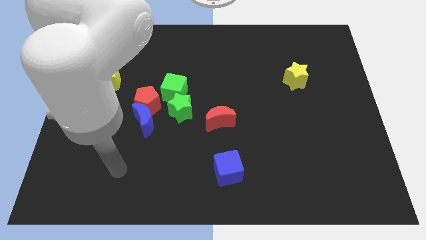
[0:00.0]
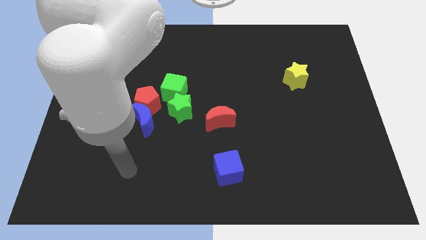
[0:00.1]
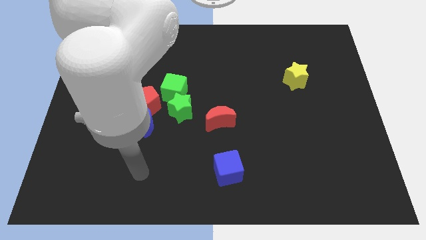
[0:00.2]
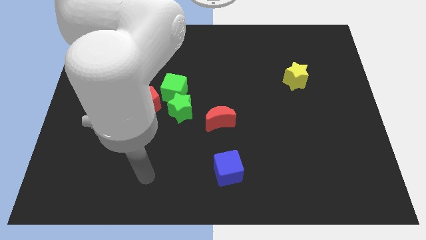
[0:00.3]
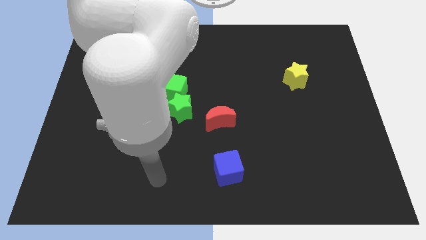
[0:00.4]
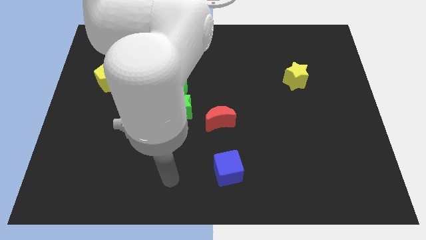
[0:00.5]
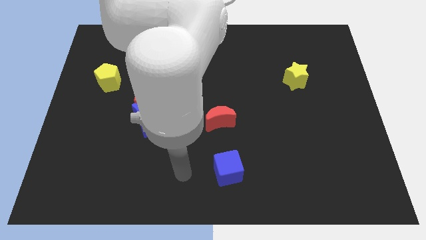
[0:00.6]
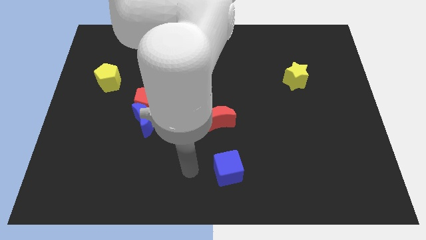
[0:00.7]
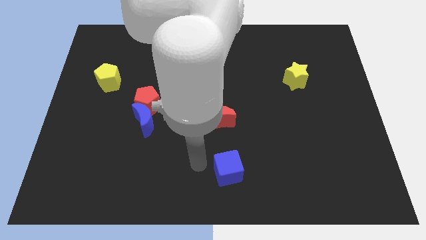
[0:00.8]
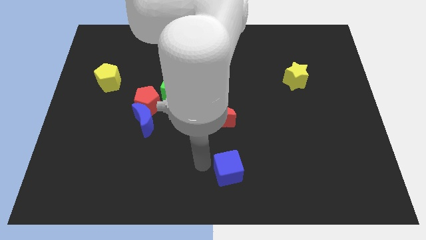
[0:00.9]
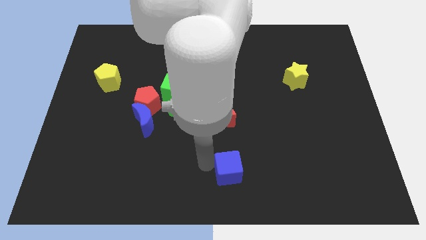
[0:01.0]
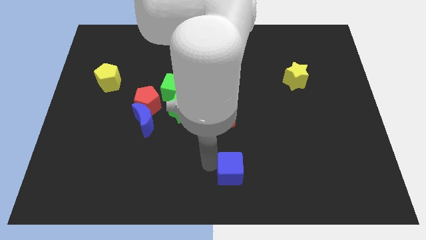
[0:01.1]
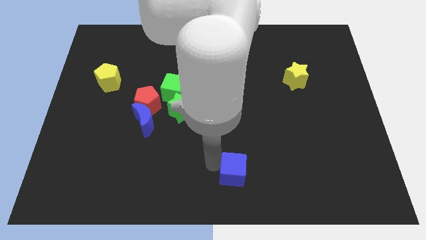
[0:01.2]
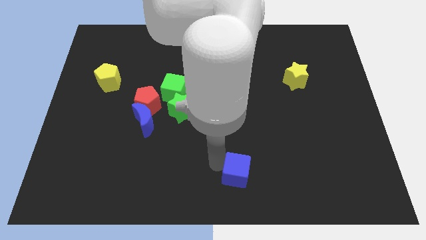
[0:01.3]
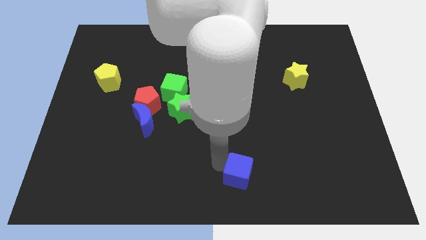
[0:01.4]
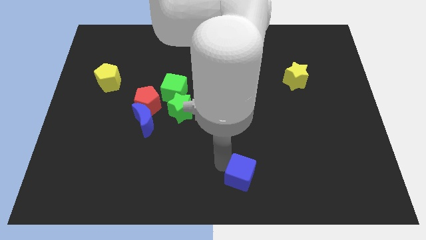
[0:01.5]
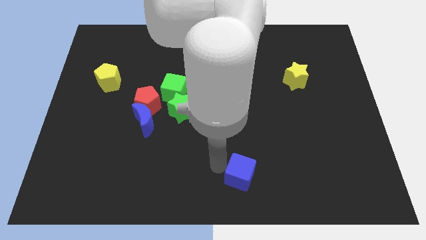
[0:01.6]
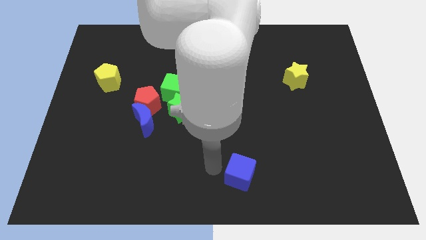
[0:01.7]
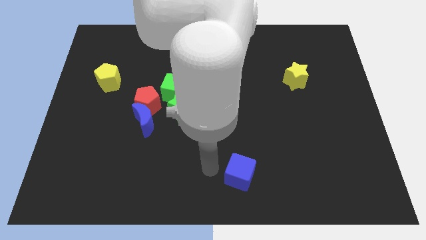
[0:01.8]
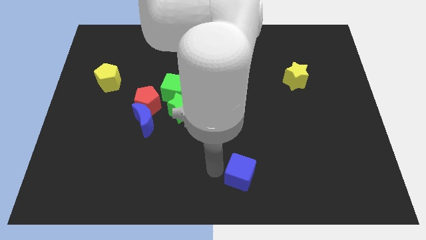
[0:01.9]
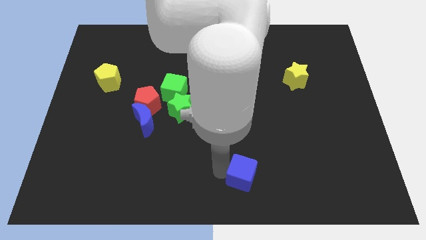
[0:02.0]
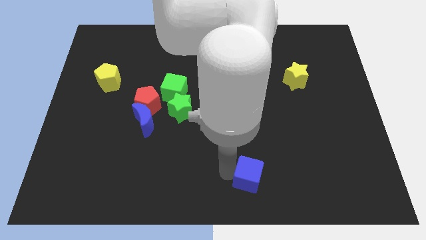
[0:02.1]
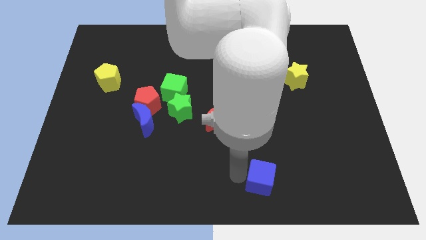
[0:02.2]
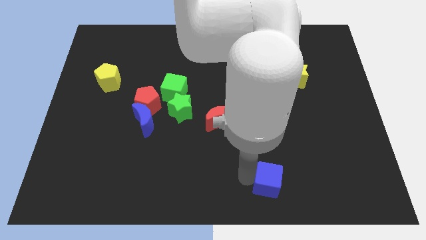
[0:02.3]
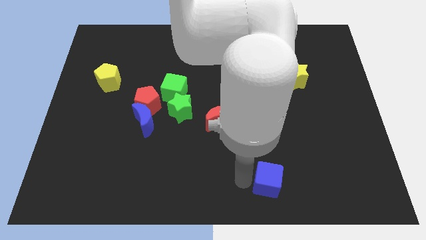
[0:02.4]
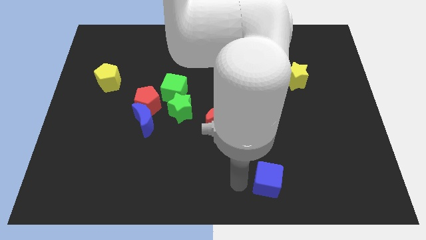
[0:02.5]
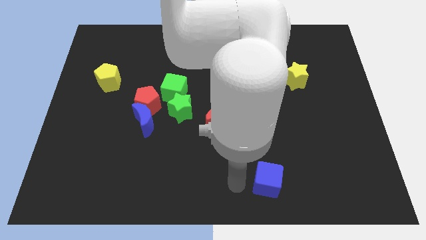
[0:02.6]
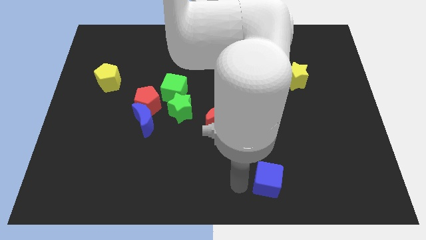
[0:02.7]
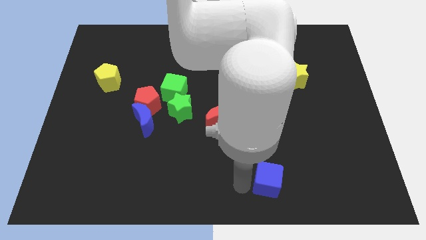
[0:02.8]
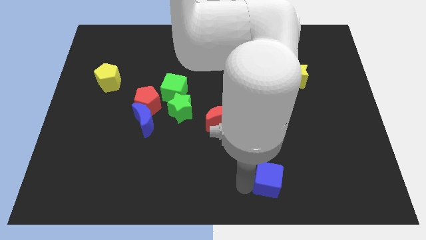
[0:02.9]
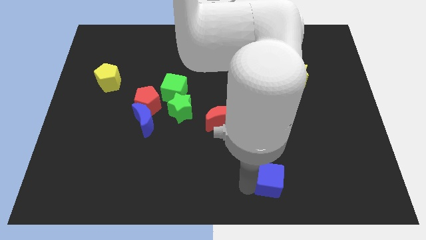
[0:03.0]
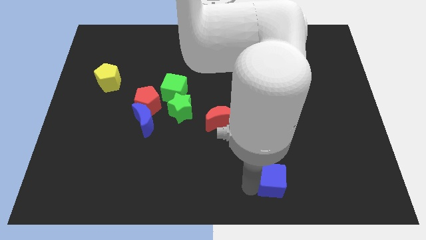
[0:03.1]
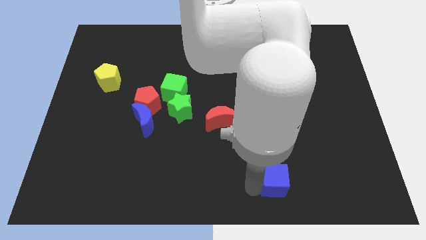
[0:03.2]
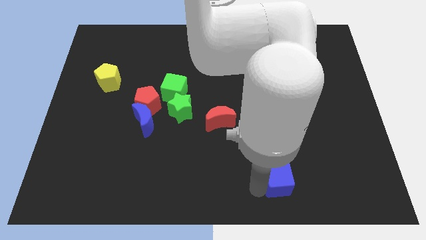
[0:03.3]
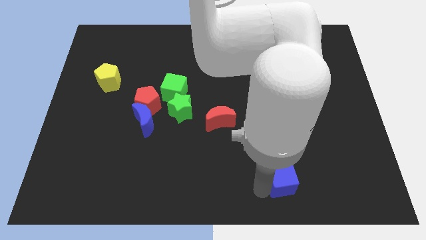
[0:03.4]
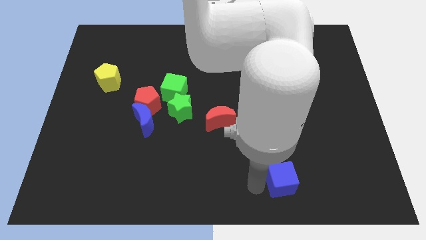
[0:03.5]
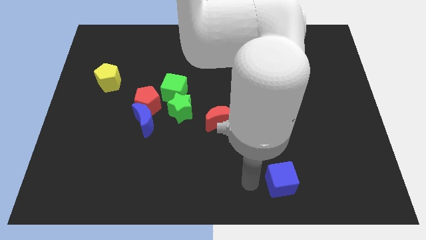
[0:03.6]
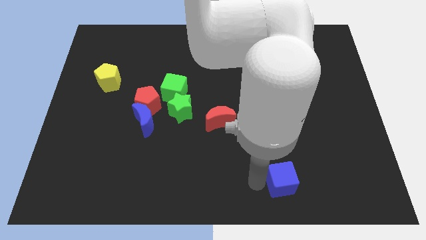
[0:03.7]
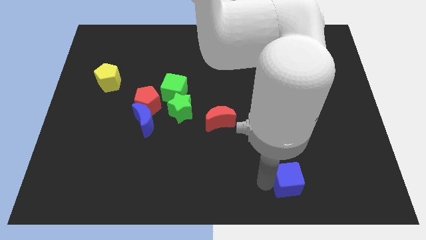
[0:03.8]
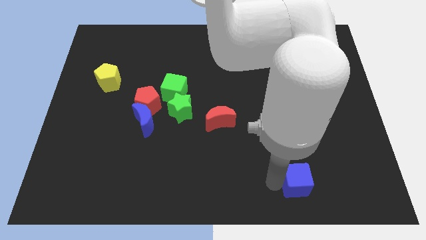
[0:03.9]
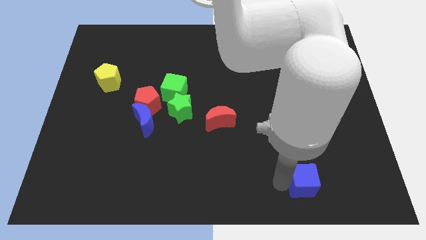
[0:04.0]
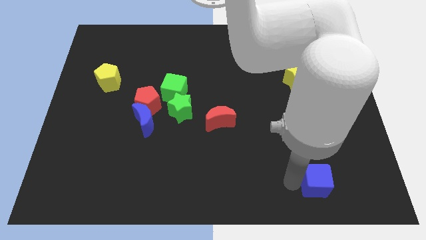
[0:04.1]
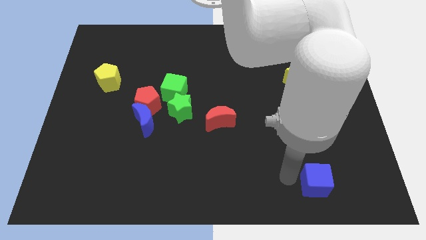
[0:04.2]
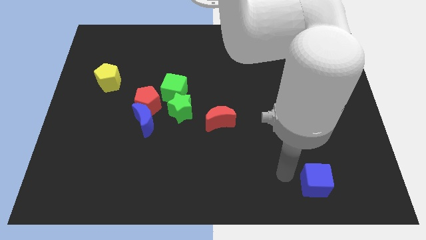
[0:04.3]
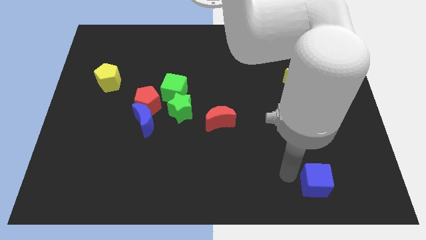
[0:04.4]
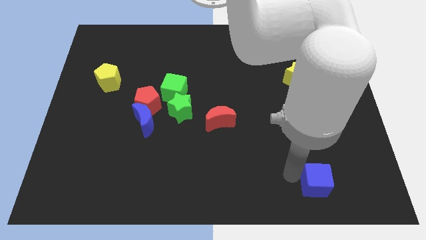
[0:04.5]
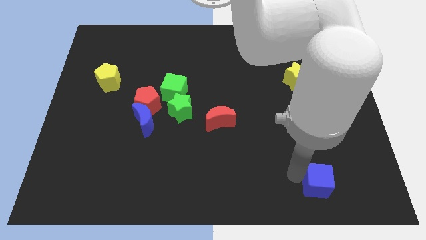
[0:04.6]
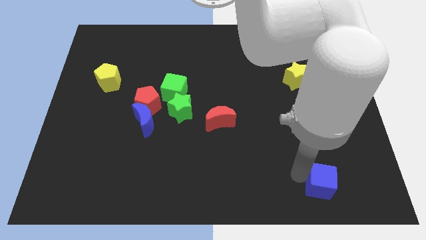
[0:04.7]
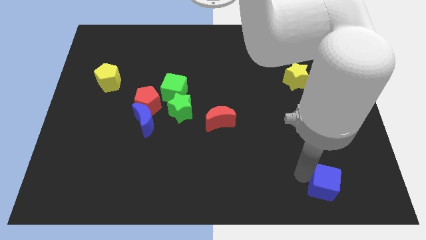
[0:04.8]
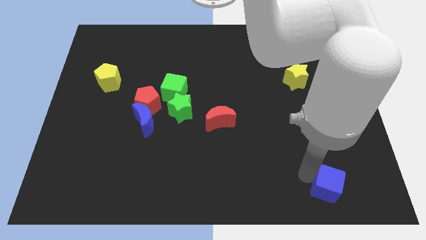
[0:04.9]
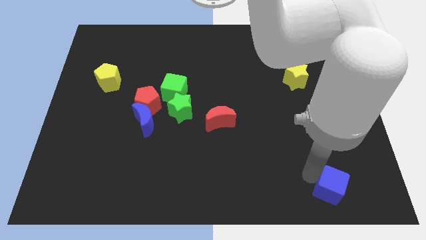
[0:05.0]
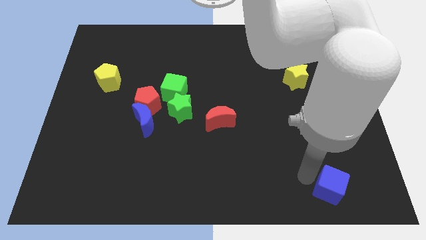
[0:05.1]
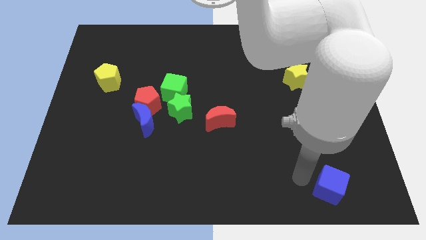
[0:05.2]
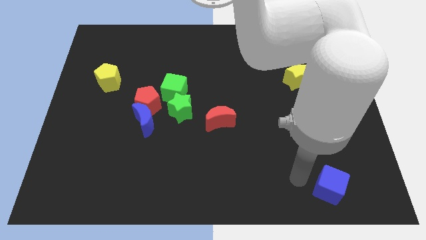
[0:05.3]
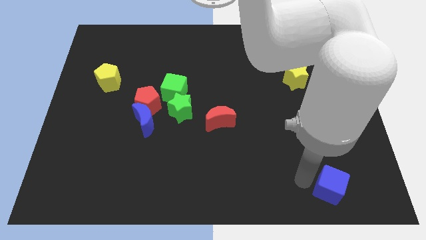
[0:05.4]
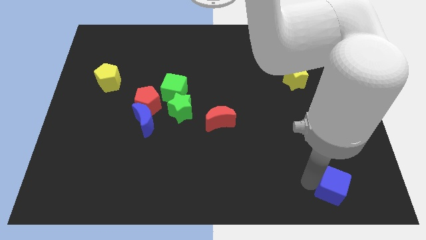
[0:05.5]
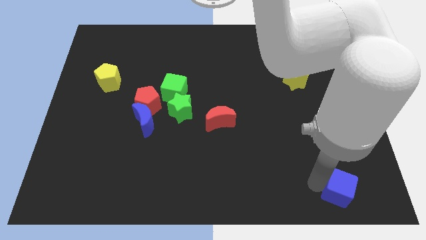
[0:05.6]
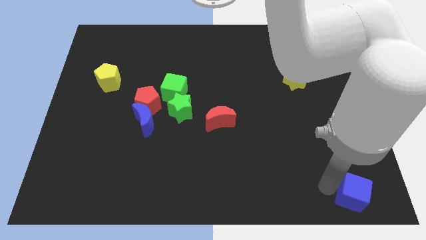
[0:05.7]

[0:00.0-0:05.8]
push the blue cube to the lower right corner

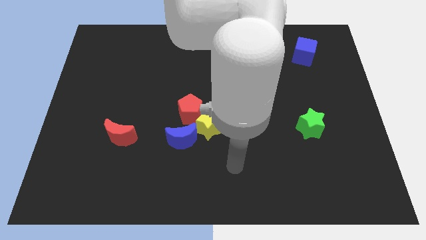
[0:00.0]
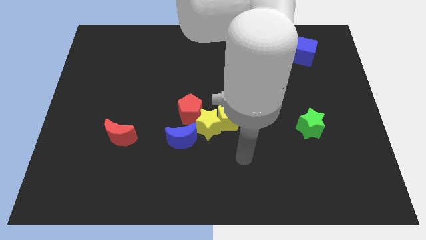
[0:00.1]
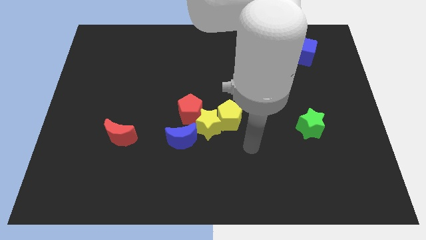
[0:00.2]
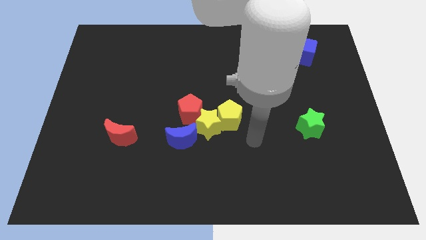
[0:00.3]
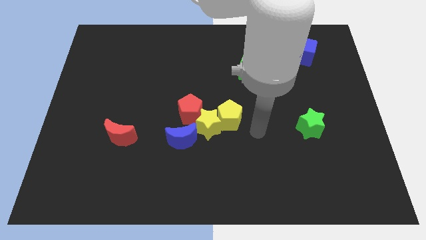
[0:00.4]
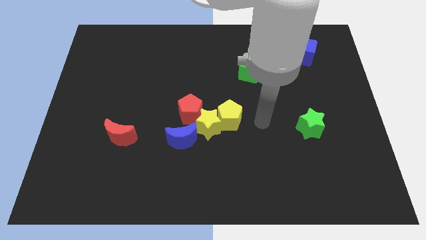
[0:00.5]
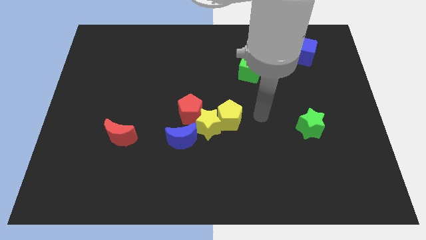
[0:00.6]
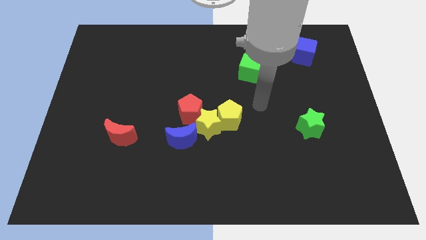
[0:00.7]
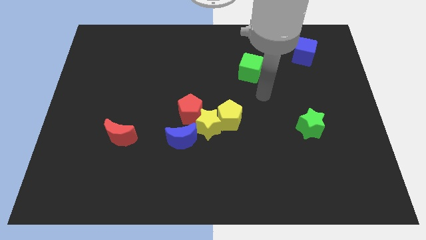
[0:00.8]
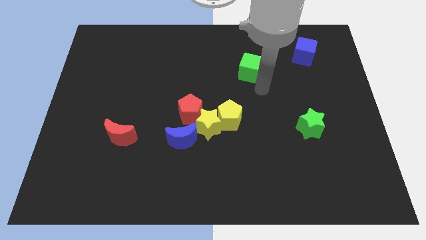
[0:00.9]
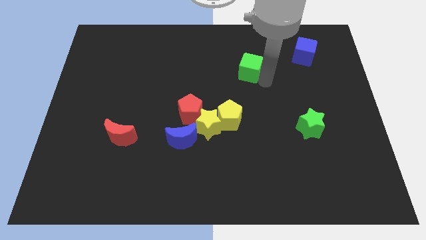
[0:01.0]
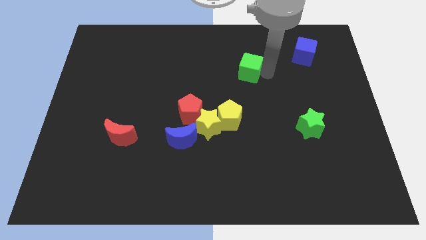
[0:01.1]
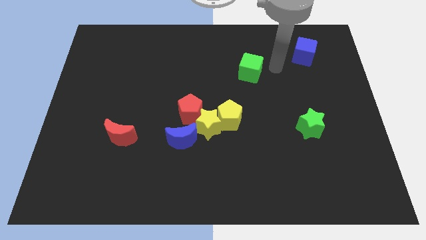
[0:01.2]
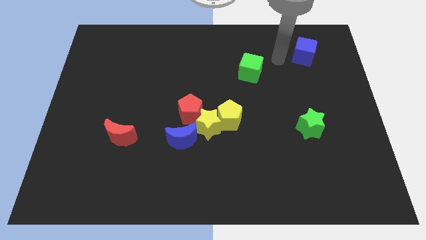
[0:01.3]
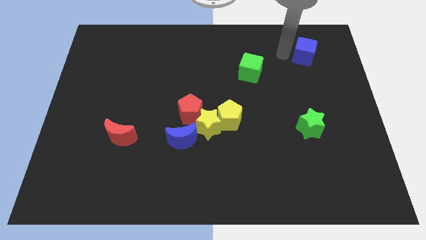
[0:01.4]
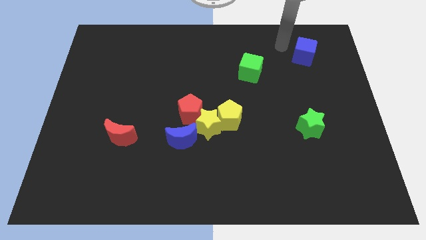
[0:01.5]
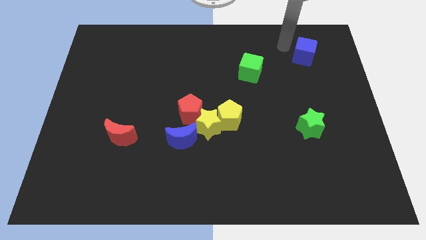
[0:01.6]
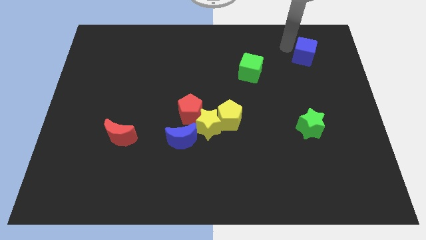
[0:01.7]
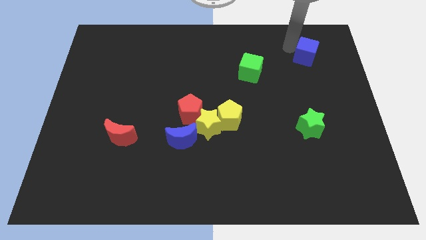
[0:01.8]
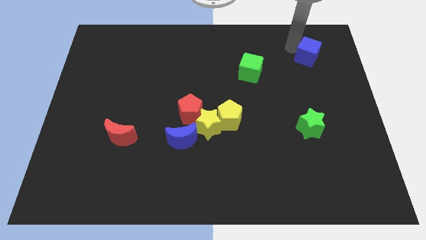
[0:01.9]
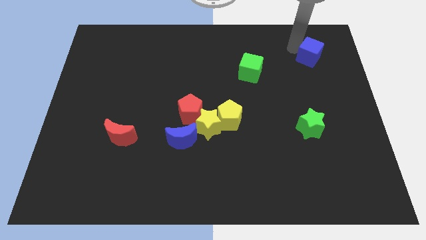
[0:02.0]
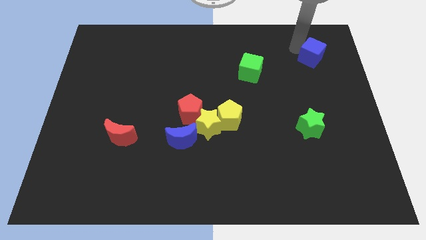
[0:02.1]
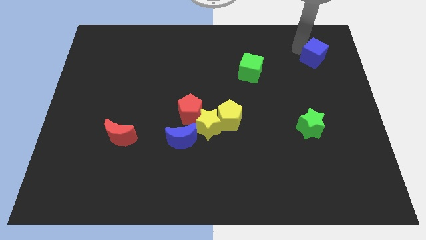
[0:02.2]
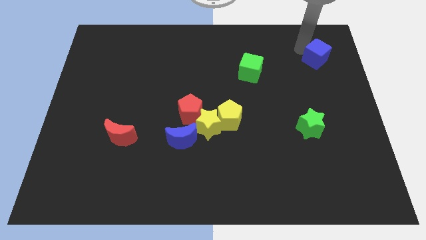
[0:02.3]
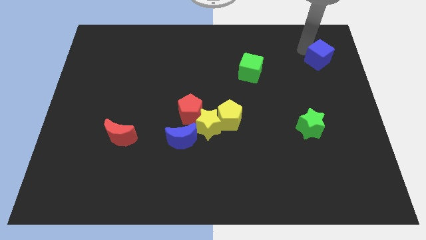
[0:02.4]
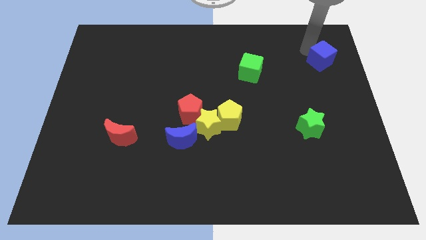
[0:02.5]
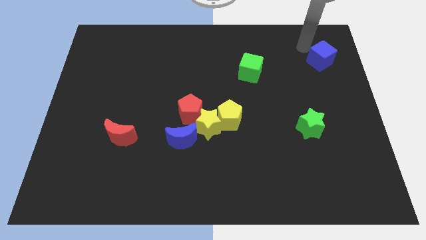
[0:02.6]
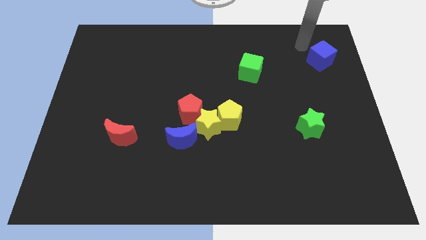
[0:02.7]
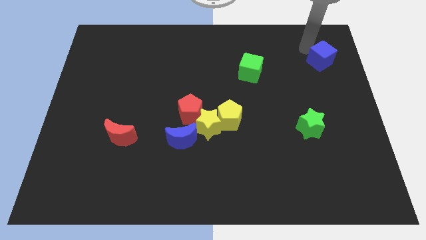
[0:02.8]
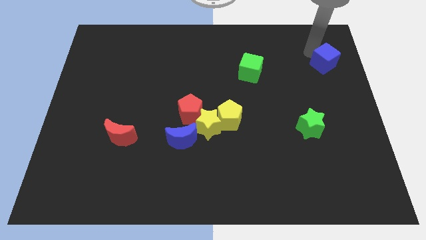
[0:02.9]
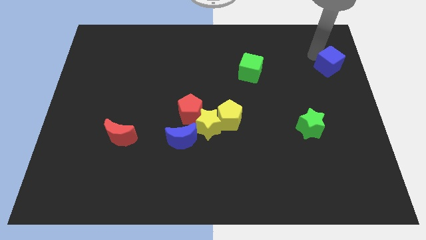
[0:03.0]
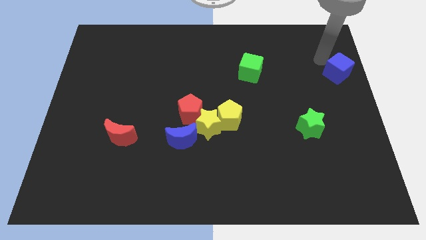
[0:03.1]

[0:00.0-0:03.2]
put the blue cube to the right side of the board
